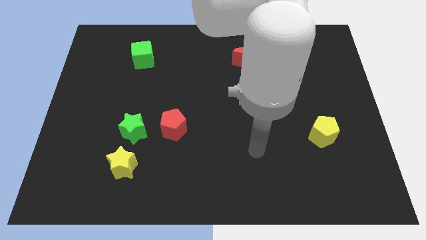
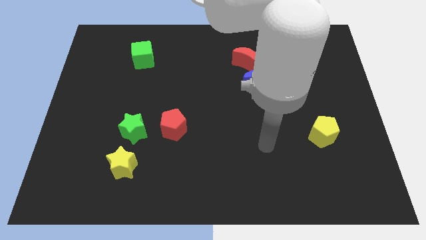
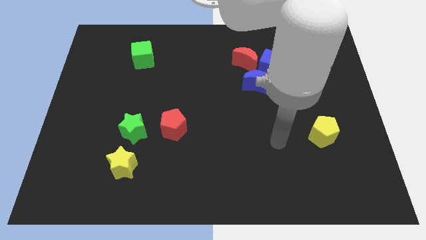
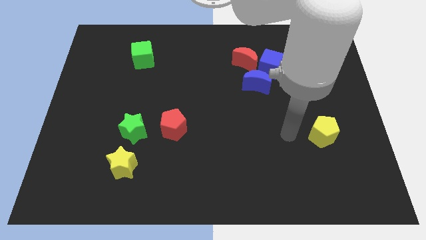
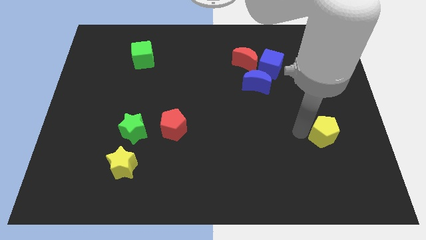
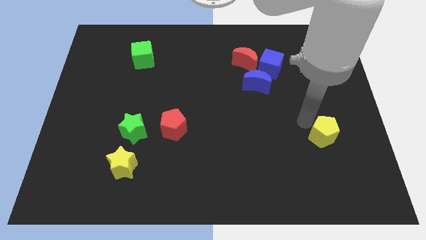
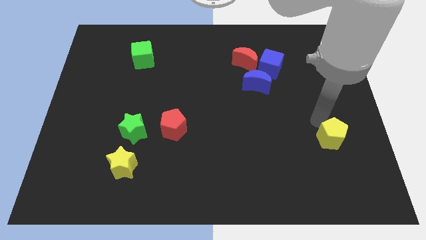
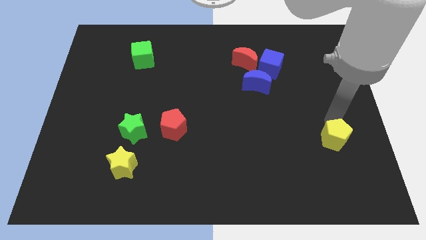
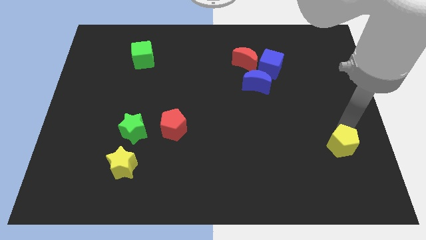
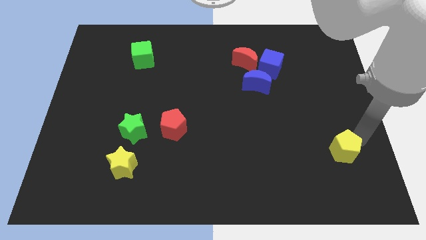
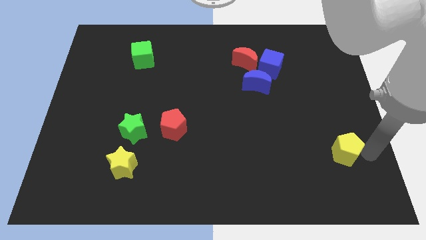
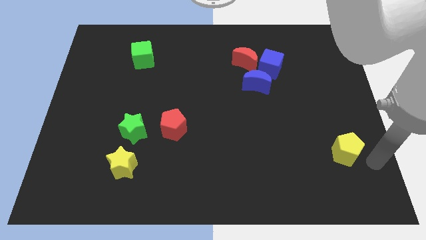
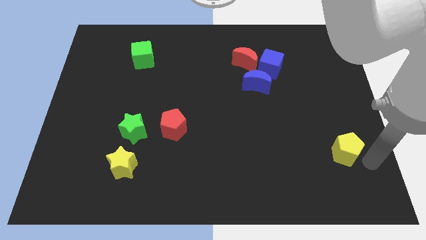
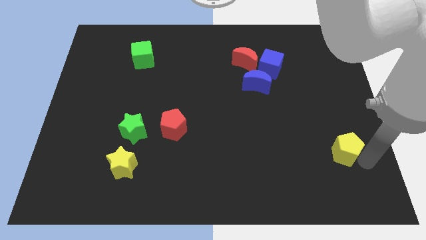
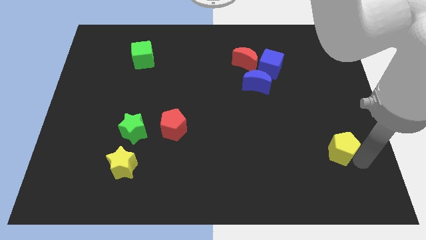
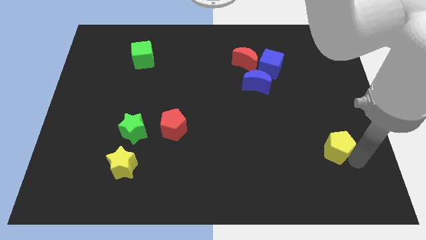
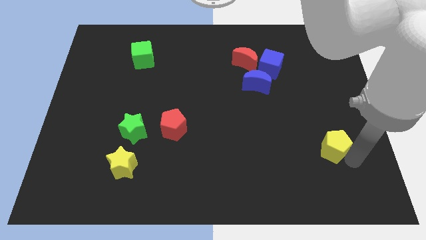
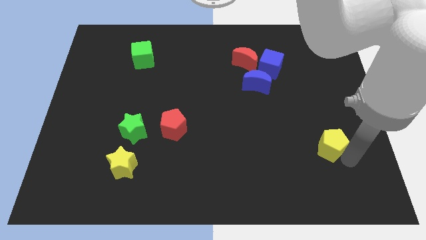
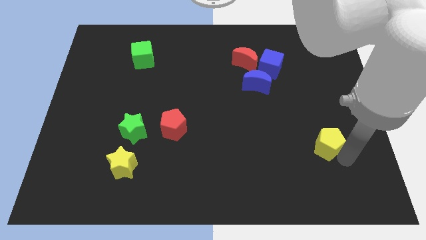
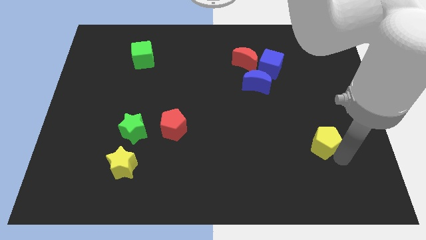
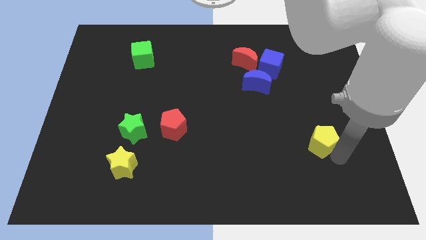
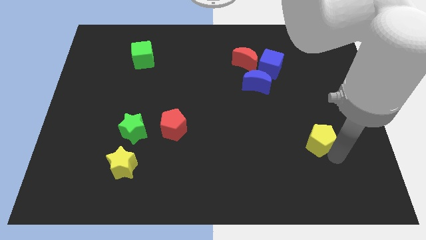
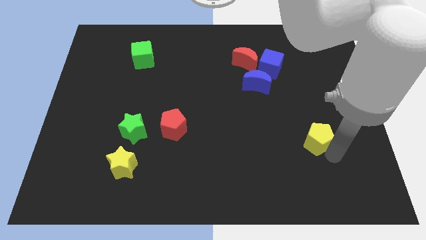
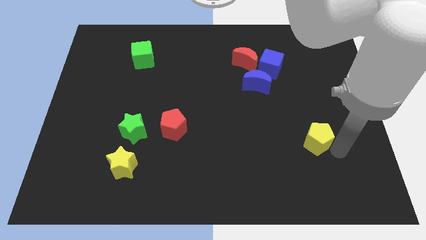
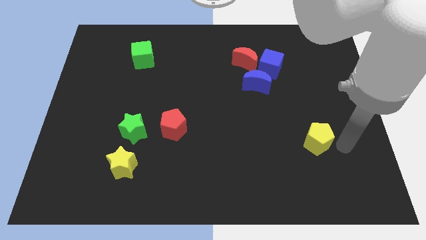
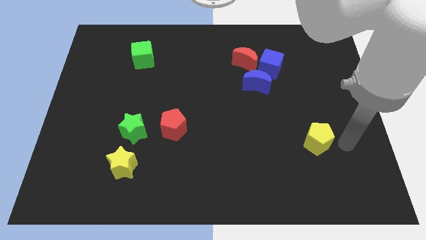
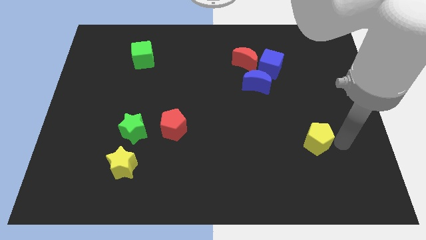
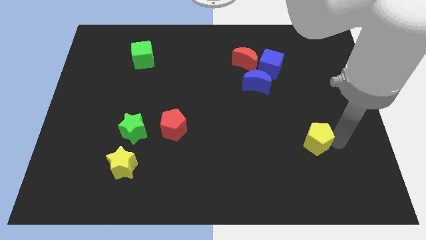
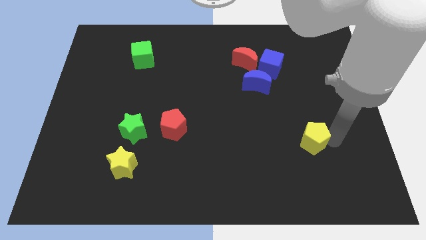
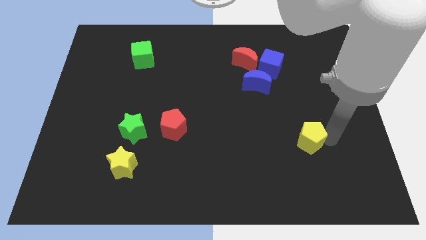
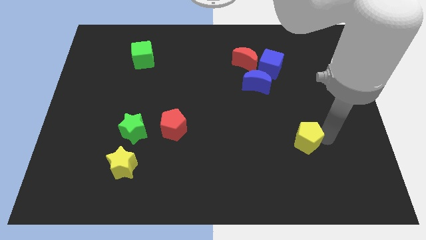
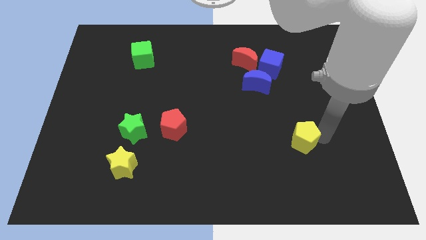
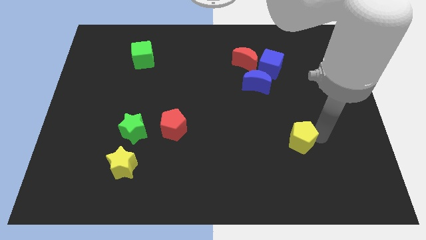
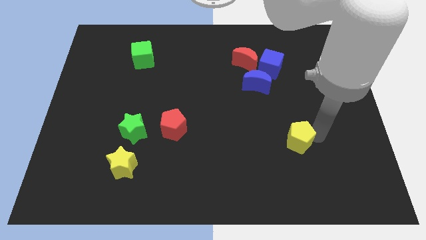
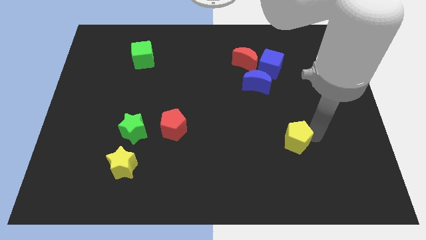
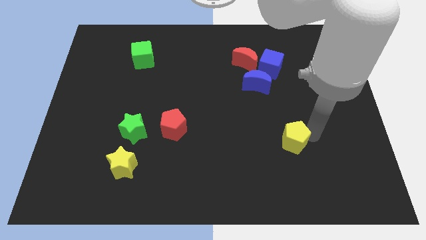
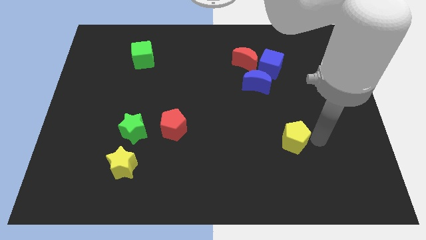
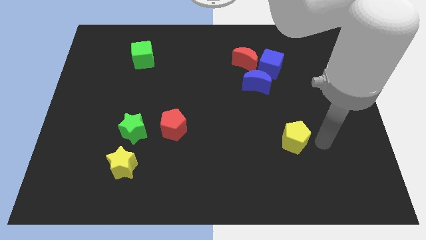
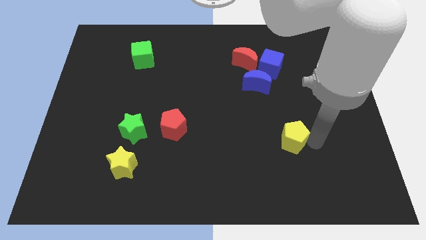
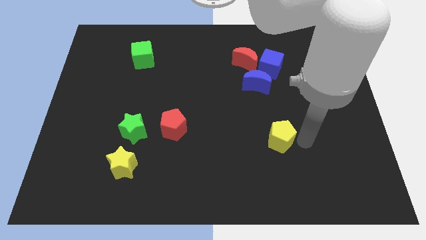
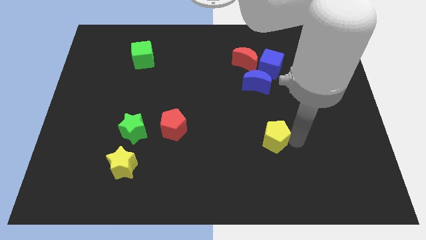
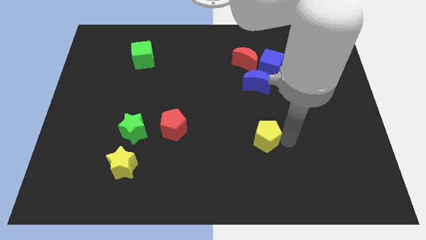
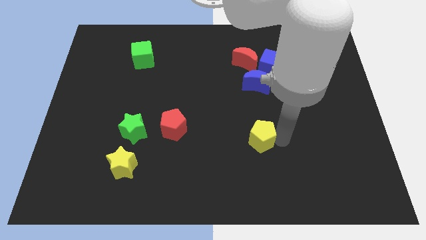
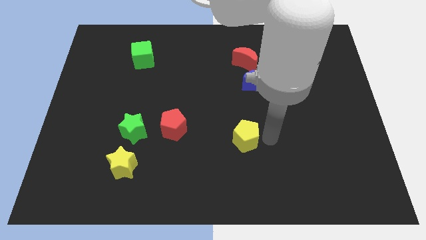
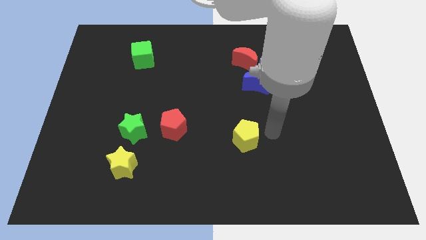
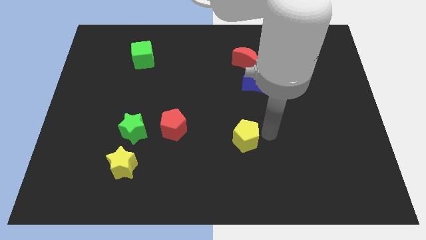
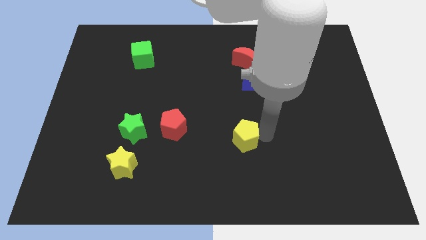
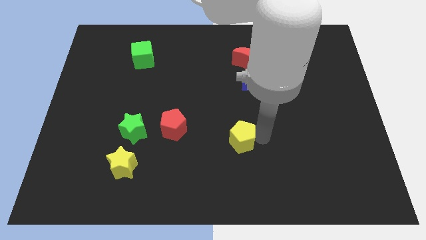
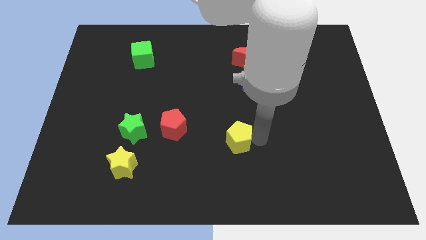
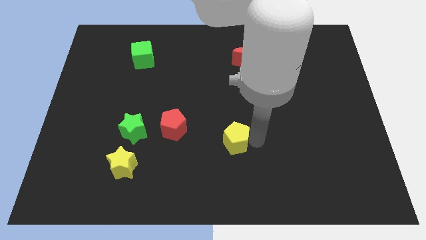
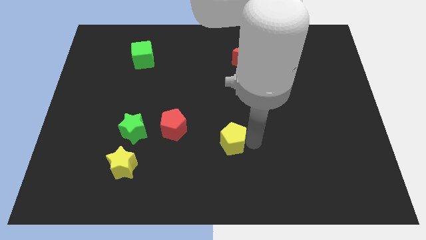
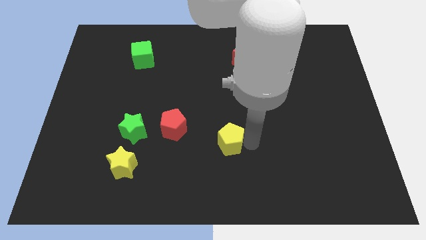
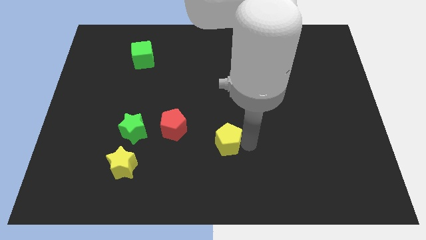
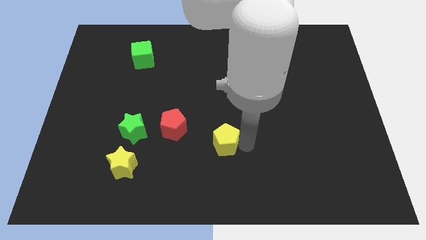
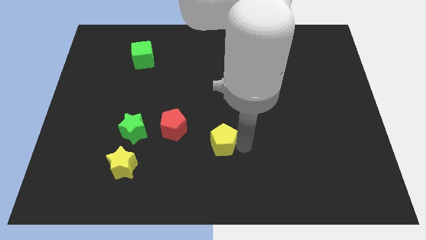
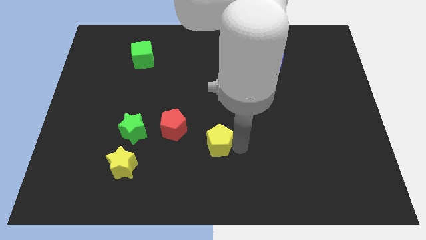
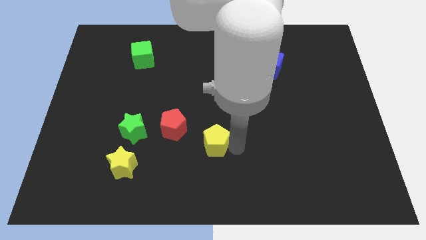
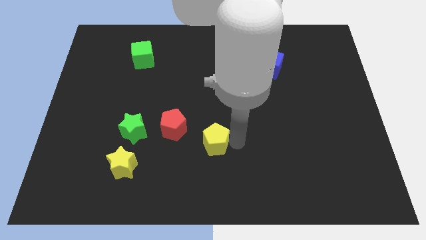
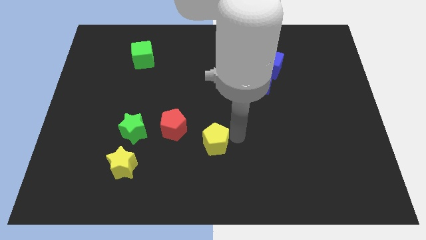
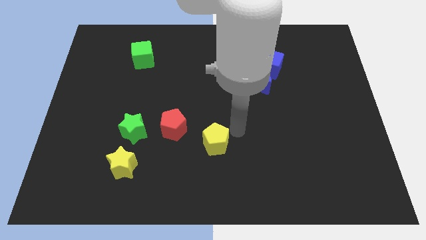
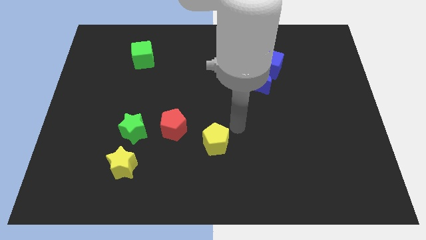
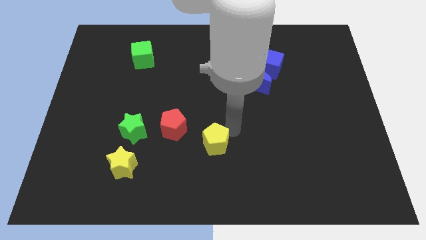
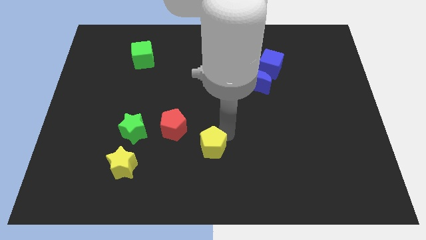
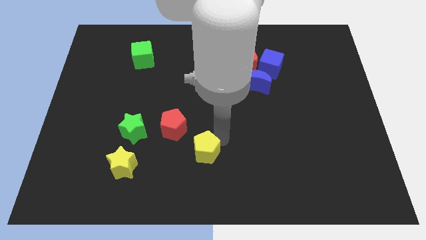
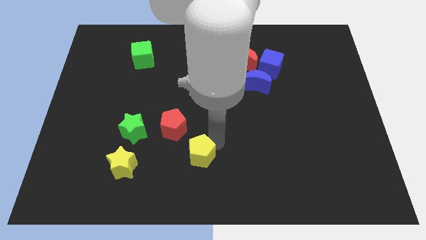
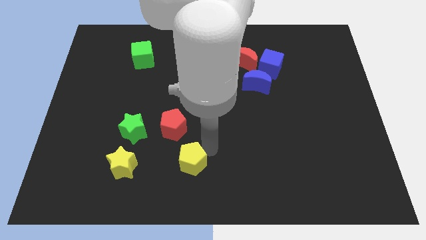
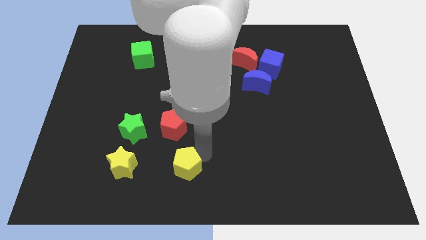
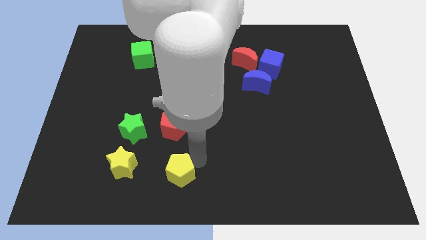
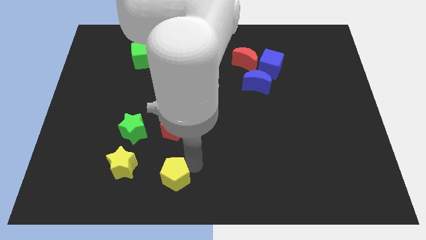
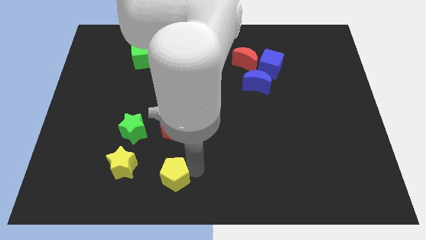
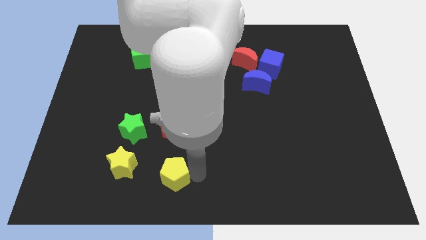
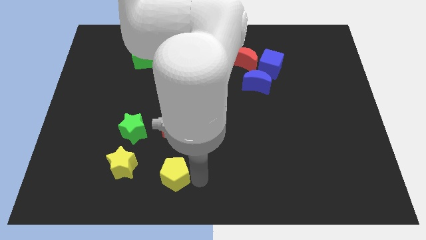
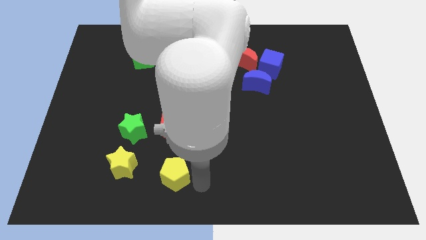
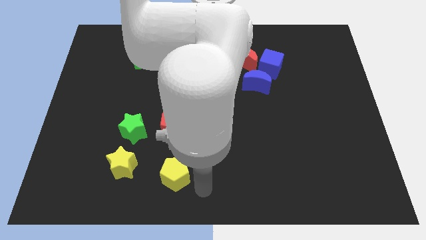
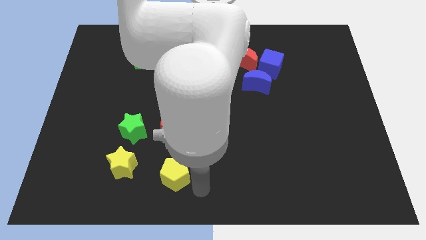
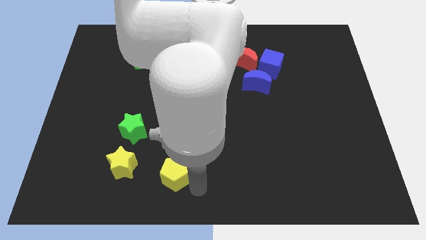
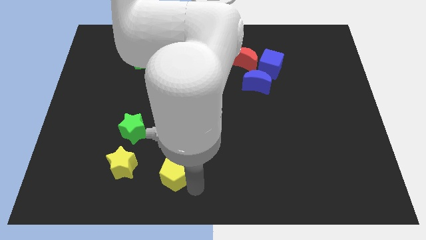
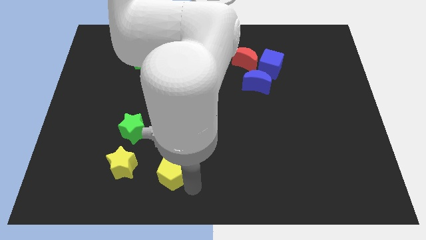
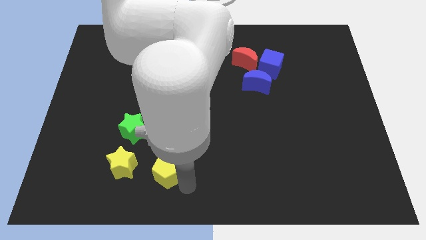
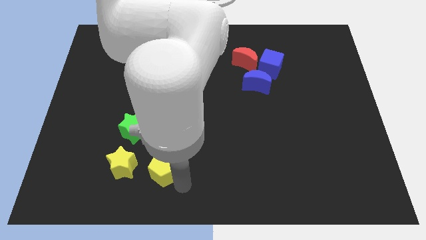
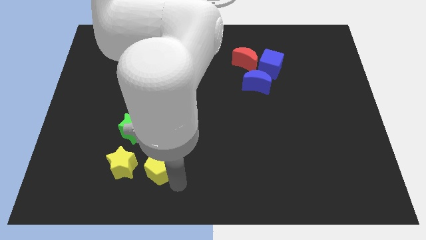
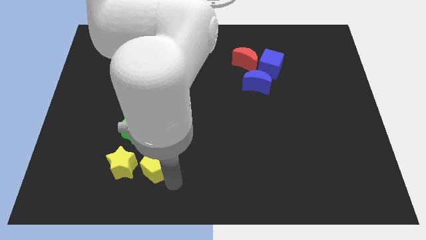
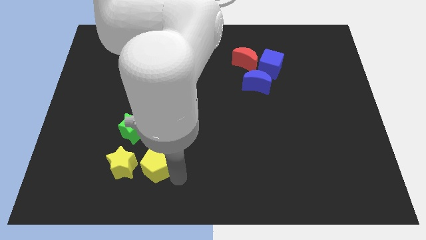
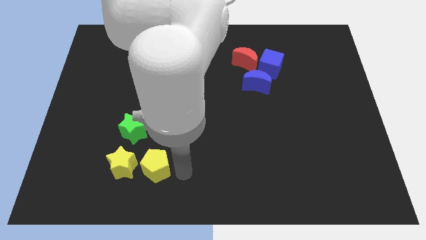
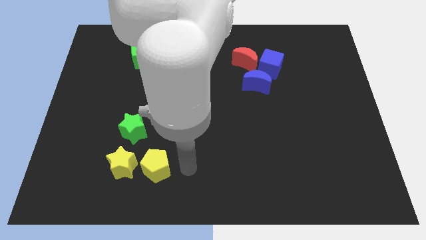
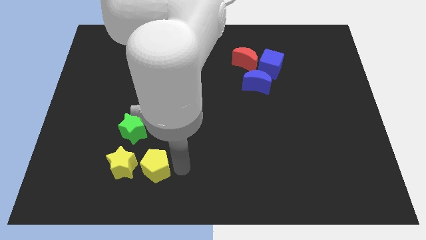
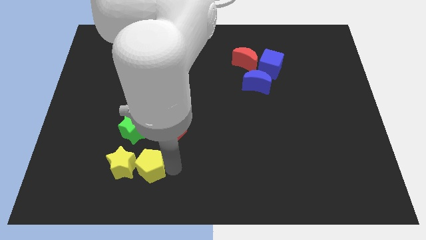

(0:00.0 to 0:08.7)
push the yellow pentagon to the yellow star
